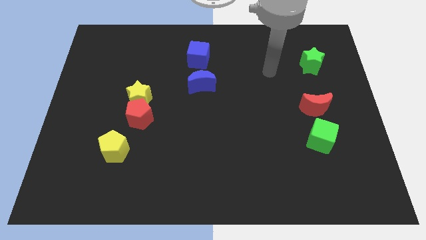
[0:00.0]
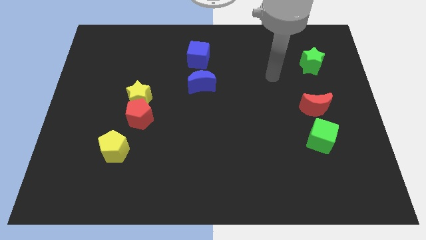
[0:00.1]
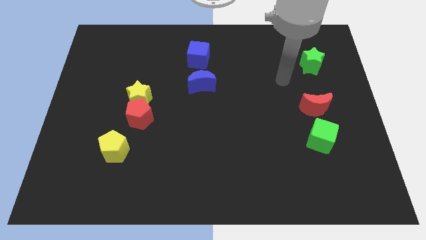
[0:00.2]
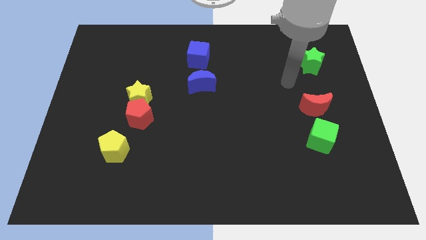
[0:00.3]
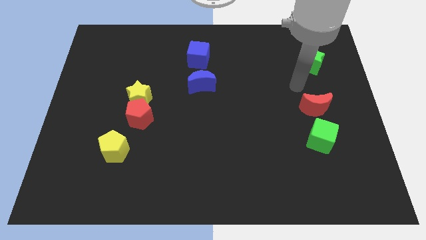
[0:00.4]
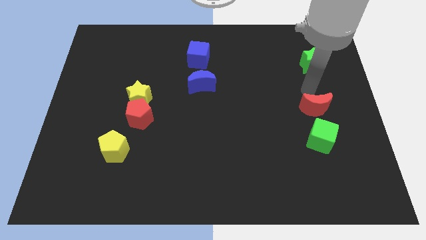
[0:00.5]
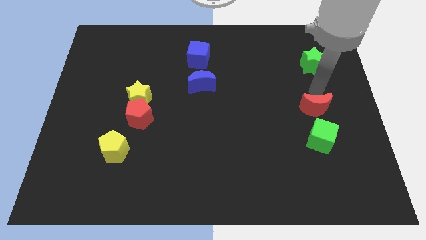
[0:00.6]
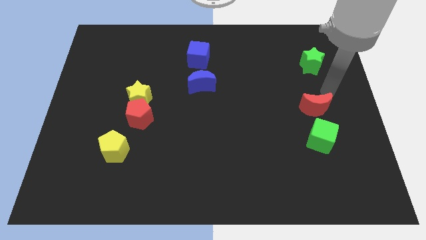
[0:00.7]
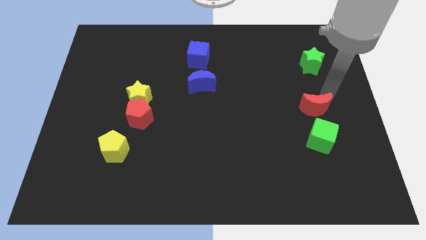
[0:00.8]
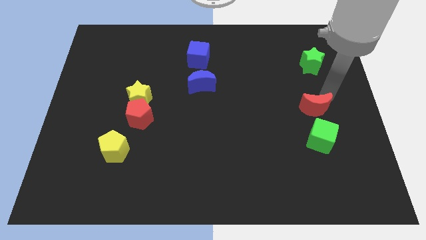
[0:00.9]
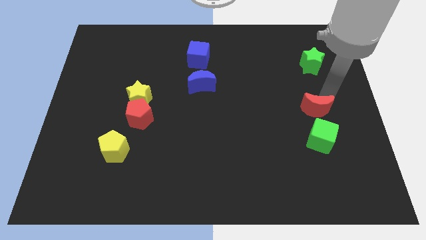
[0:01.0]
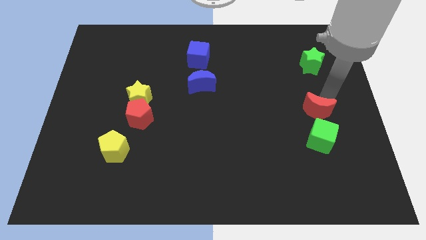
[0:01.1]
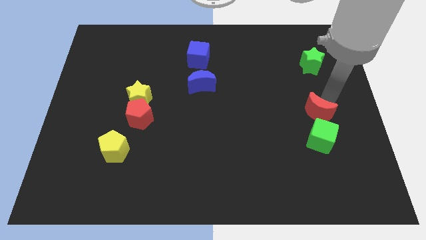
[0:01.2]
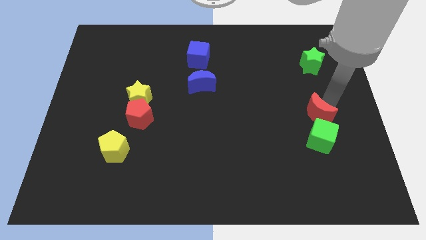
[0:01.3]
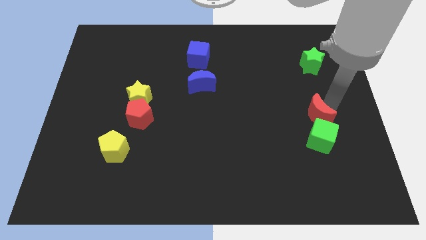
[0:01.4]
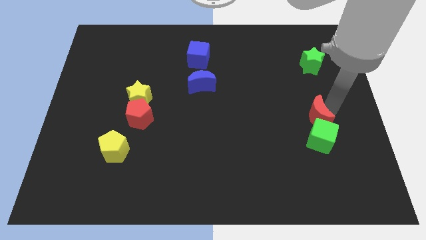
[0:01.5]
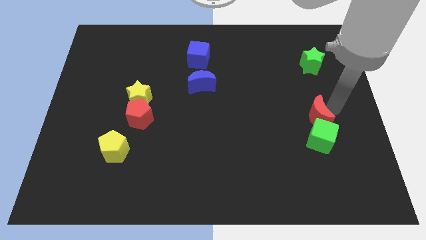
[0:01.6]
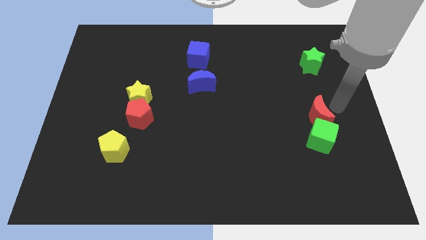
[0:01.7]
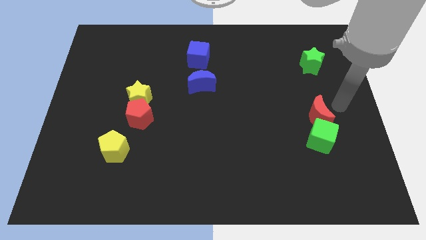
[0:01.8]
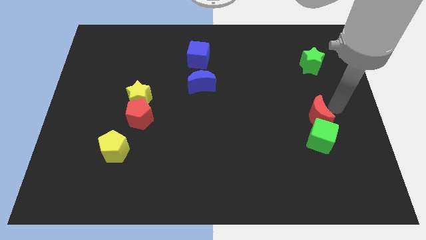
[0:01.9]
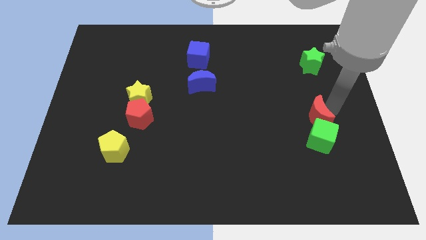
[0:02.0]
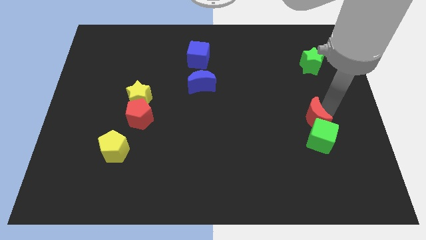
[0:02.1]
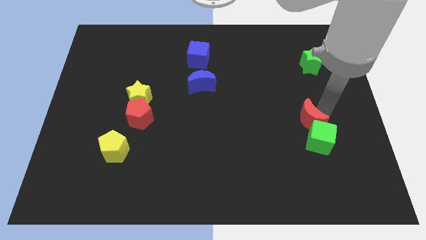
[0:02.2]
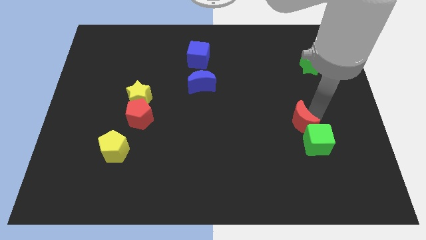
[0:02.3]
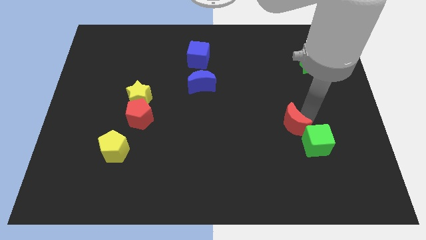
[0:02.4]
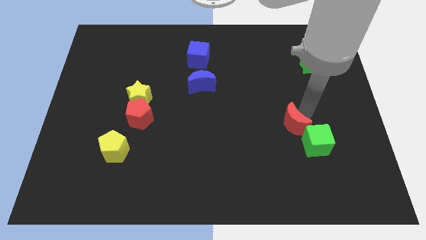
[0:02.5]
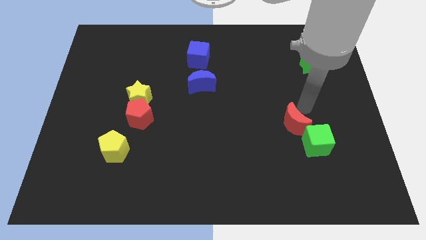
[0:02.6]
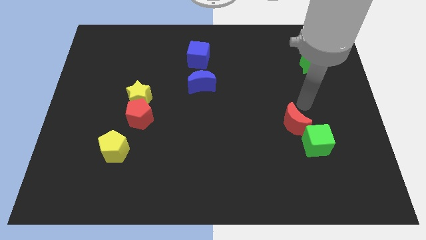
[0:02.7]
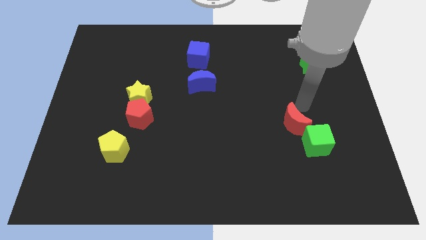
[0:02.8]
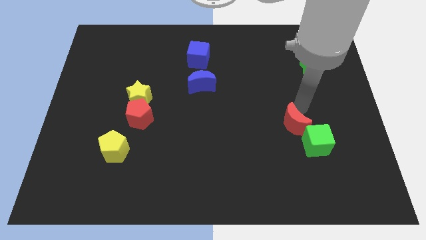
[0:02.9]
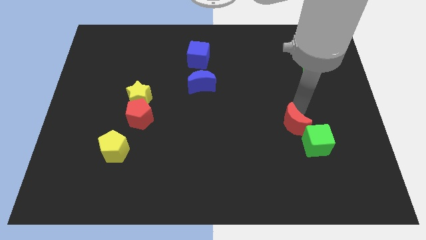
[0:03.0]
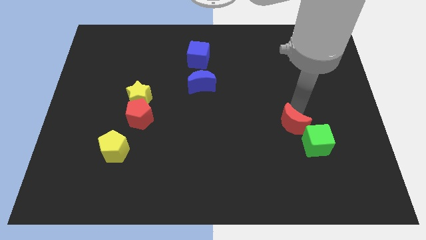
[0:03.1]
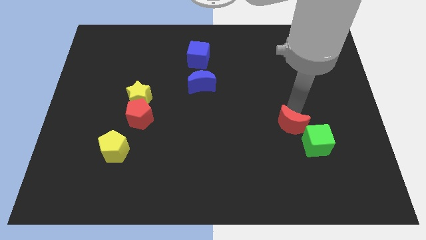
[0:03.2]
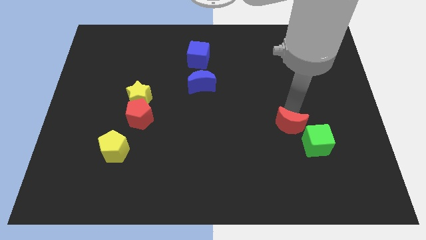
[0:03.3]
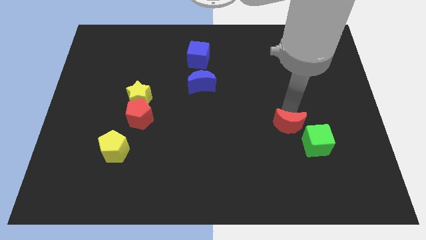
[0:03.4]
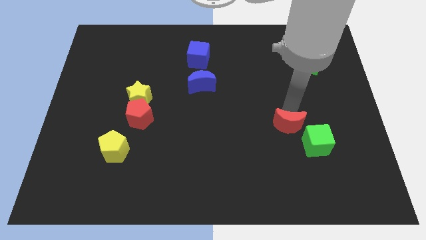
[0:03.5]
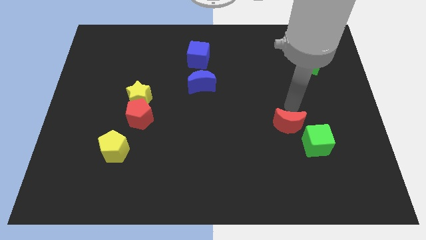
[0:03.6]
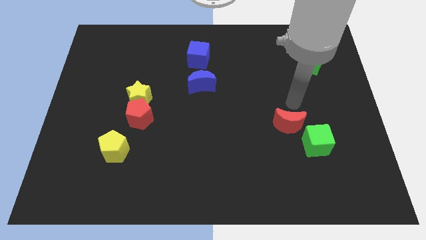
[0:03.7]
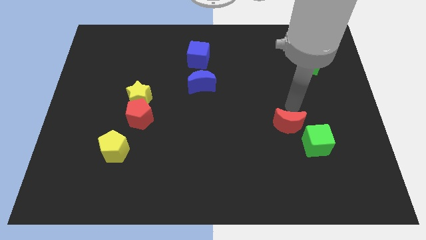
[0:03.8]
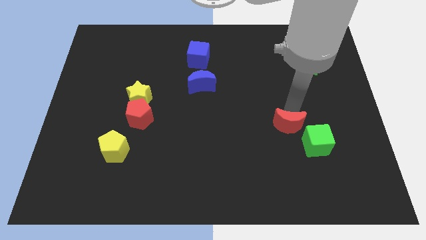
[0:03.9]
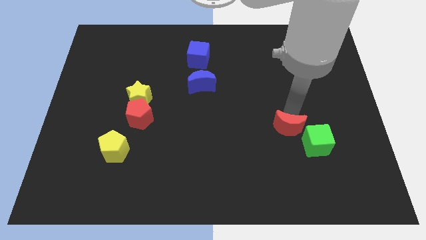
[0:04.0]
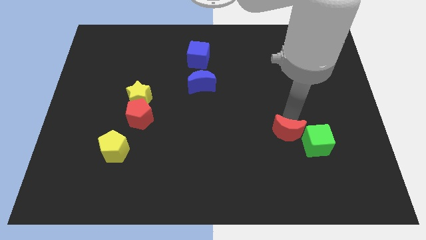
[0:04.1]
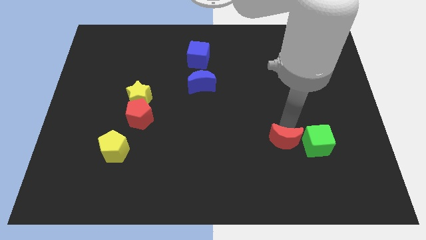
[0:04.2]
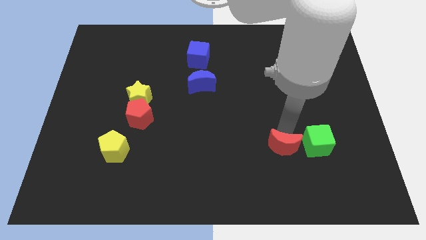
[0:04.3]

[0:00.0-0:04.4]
slightly move the red moon downwards

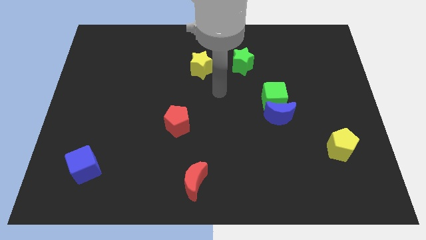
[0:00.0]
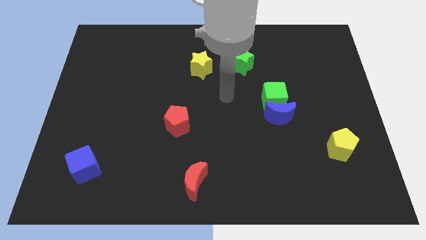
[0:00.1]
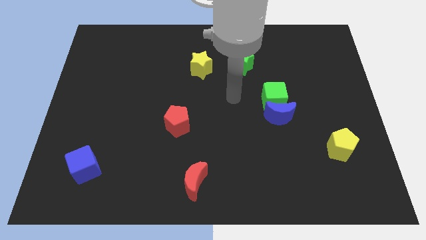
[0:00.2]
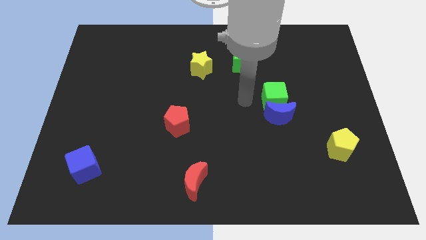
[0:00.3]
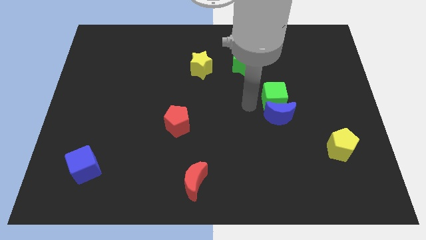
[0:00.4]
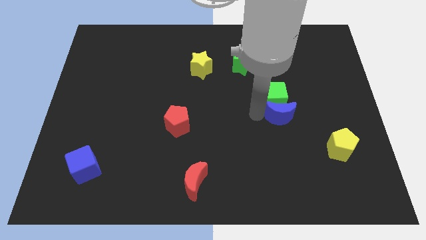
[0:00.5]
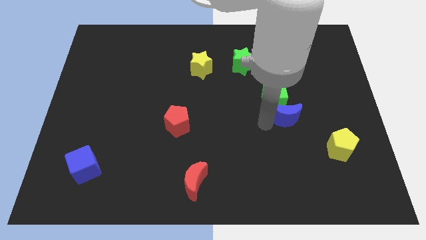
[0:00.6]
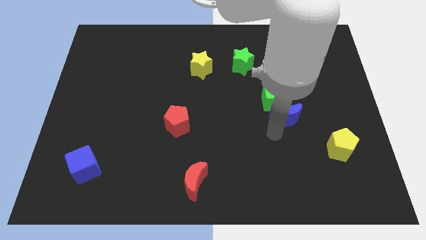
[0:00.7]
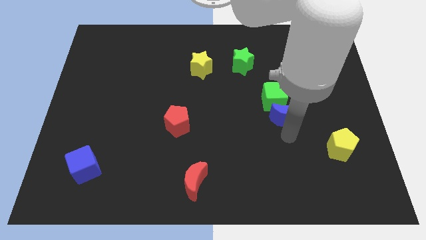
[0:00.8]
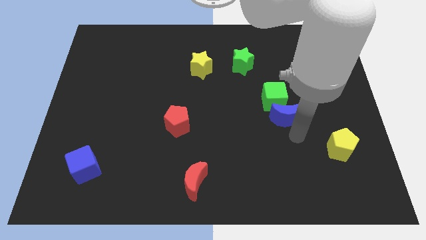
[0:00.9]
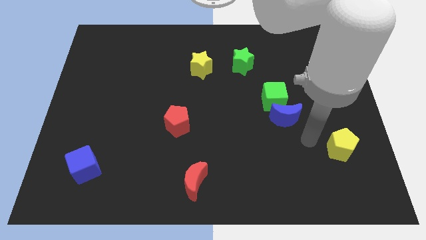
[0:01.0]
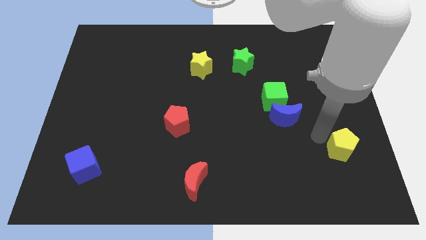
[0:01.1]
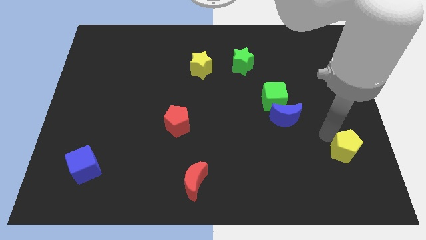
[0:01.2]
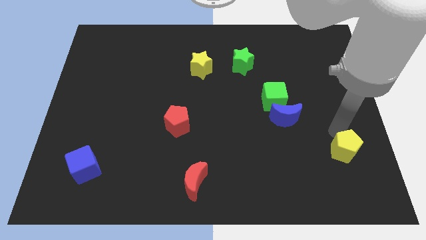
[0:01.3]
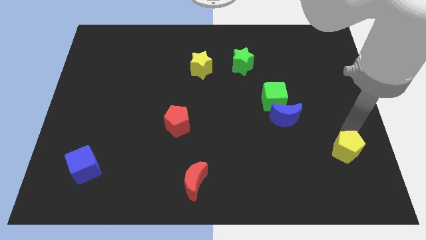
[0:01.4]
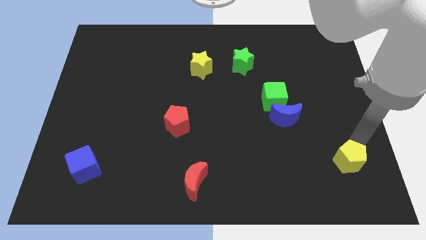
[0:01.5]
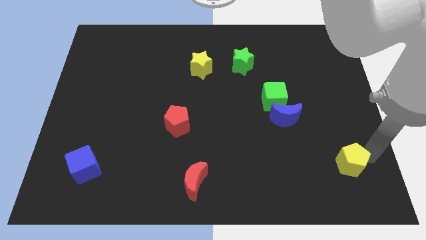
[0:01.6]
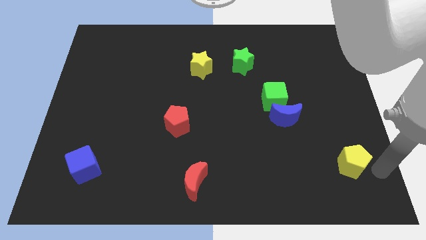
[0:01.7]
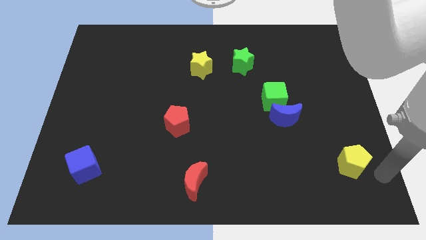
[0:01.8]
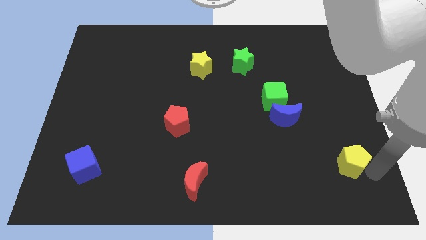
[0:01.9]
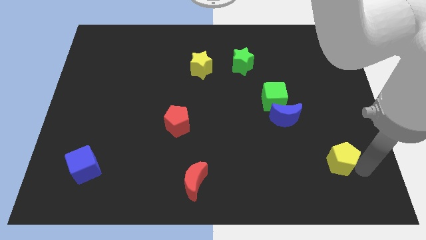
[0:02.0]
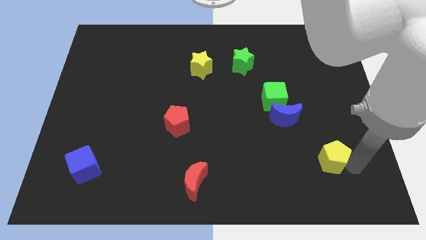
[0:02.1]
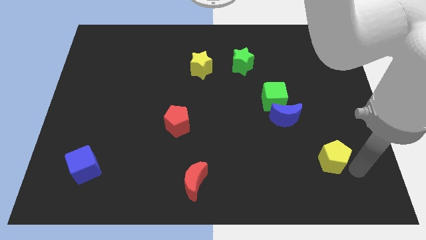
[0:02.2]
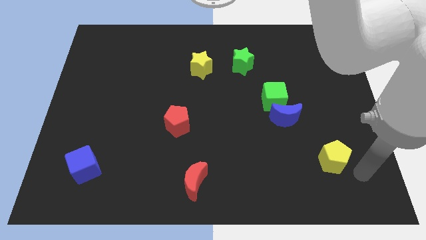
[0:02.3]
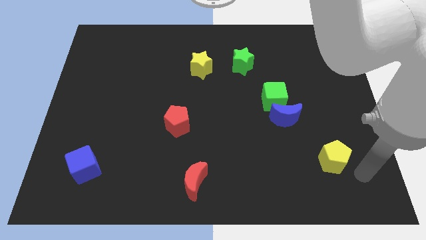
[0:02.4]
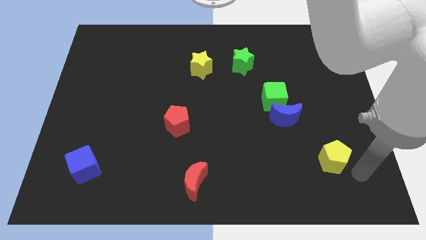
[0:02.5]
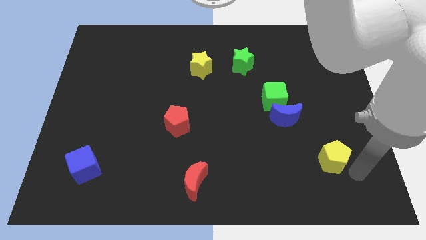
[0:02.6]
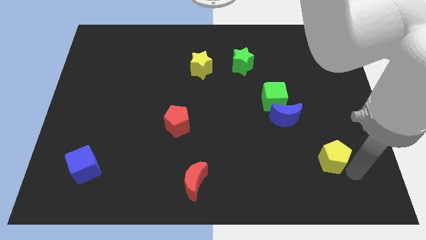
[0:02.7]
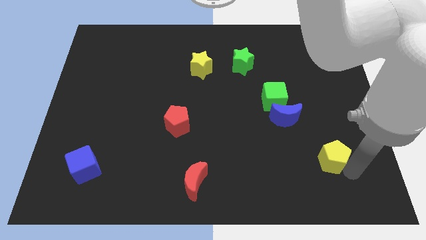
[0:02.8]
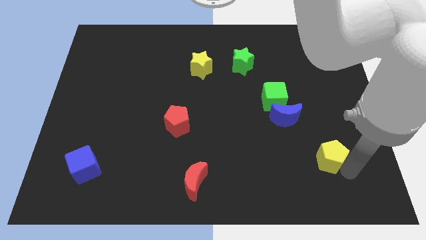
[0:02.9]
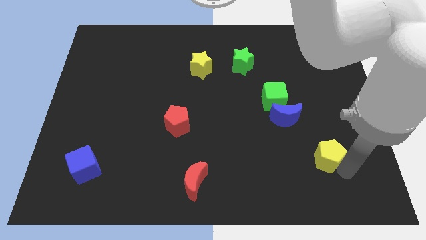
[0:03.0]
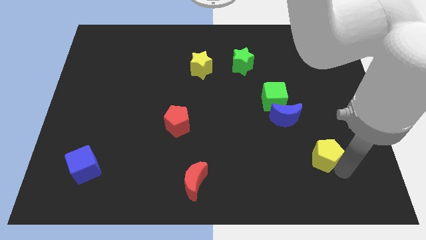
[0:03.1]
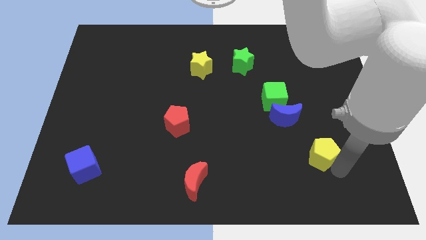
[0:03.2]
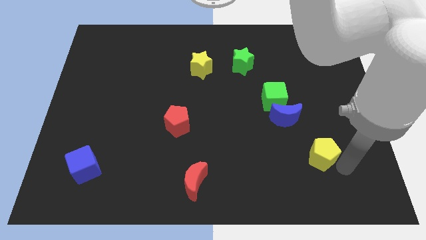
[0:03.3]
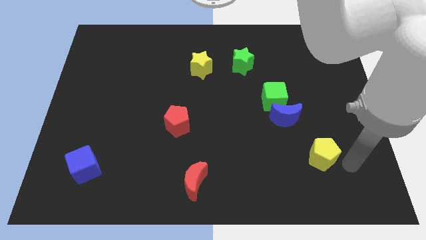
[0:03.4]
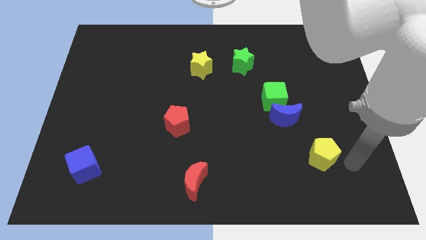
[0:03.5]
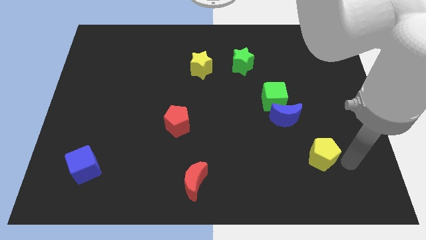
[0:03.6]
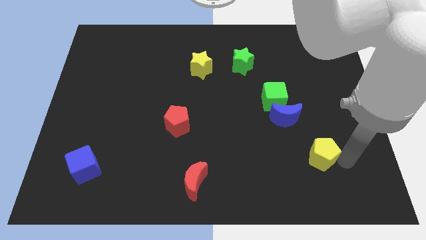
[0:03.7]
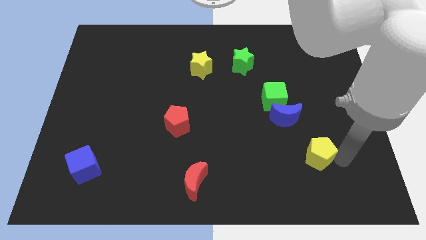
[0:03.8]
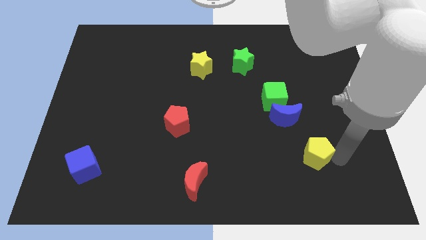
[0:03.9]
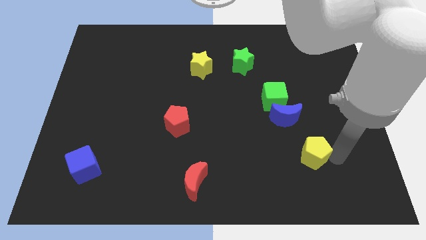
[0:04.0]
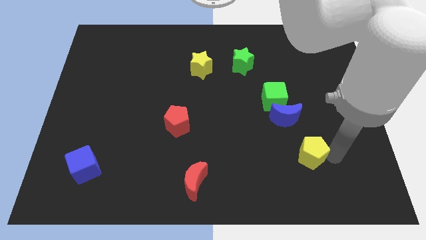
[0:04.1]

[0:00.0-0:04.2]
push the yellow pentagon a little bit left
